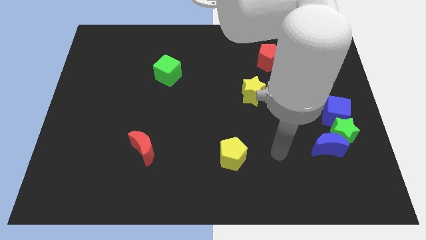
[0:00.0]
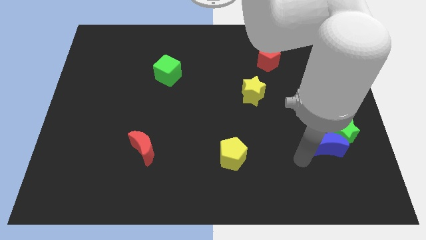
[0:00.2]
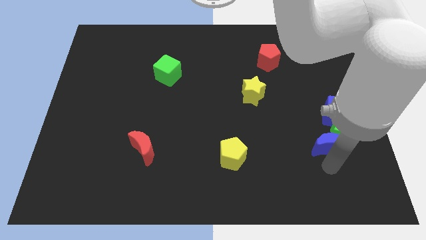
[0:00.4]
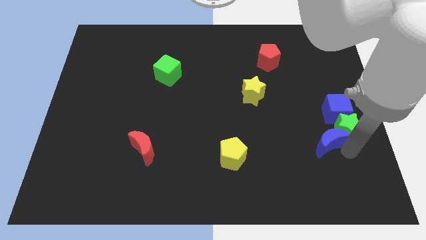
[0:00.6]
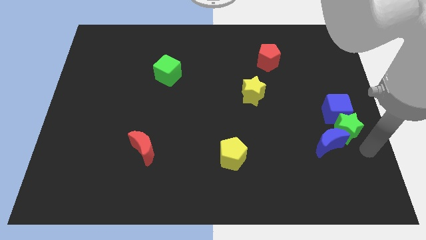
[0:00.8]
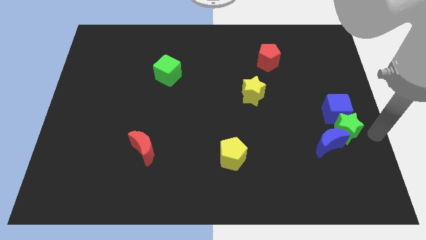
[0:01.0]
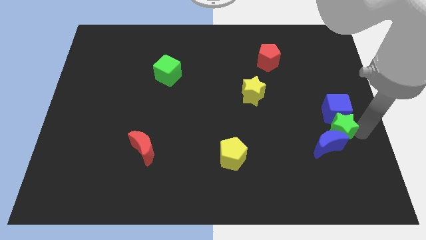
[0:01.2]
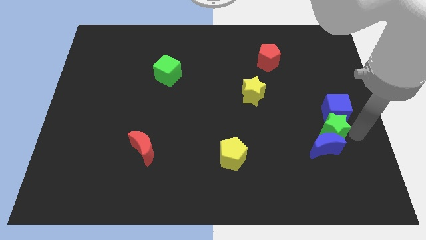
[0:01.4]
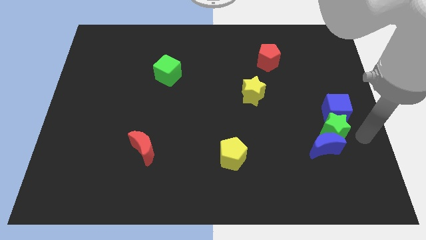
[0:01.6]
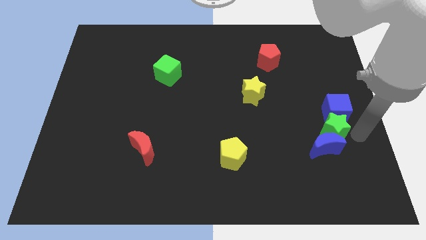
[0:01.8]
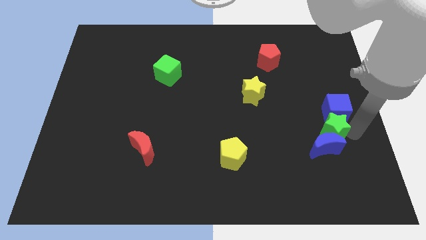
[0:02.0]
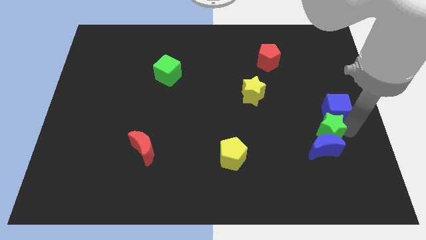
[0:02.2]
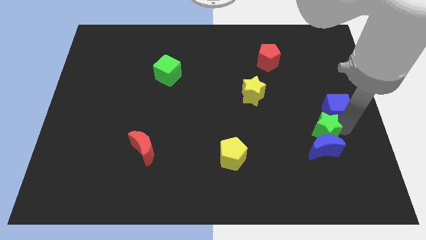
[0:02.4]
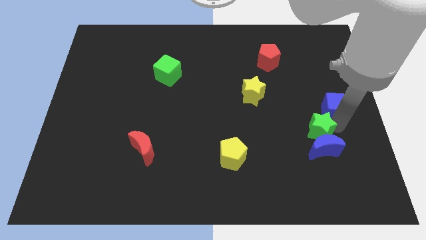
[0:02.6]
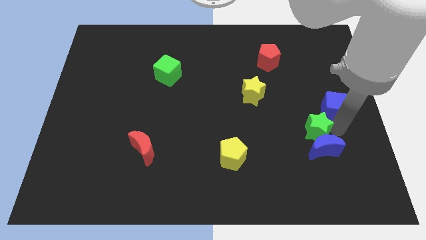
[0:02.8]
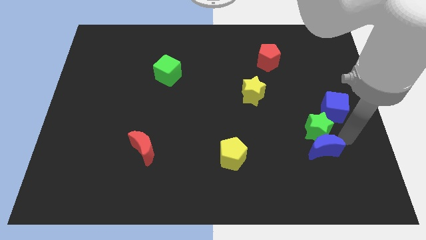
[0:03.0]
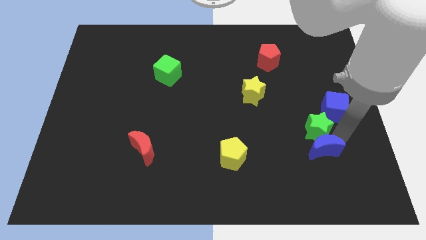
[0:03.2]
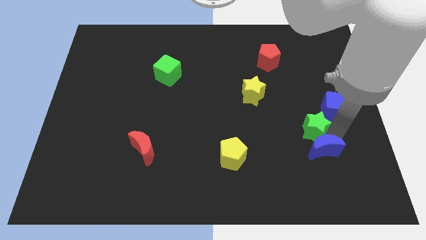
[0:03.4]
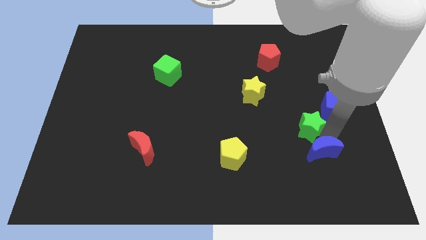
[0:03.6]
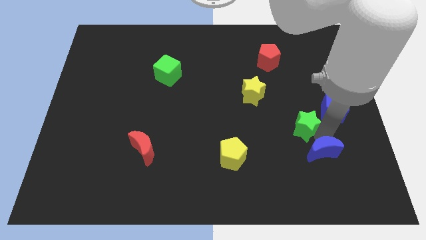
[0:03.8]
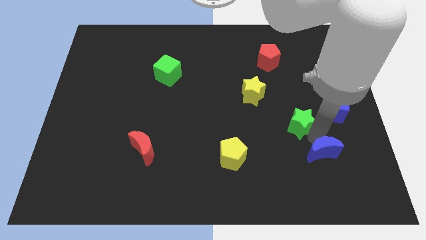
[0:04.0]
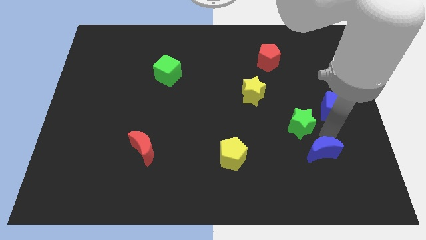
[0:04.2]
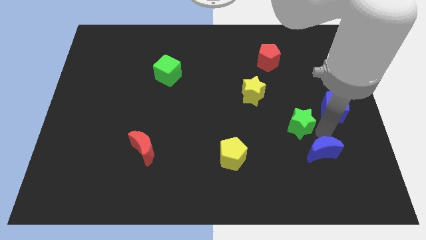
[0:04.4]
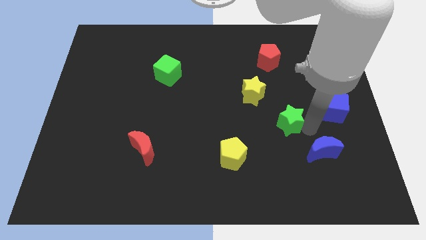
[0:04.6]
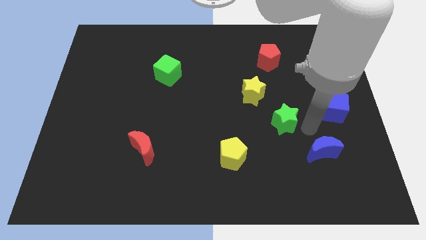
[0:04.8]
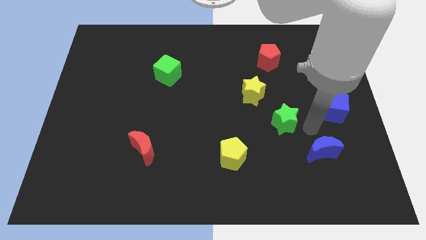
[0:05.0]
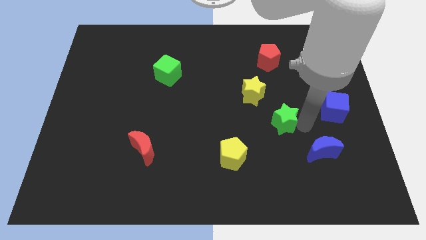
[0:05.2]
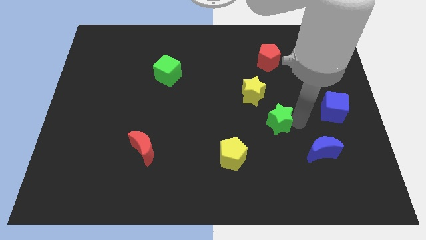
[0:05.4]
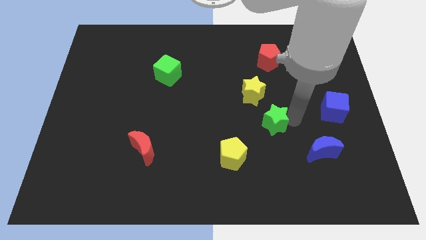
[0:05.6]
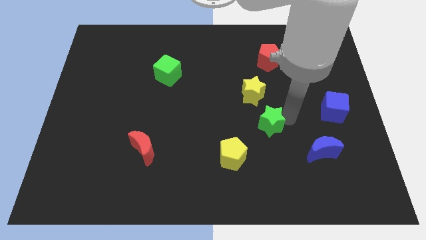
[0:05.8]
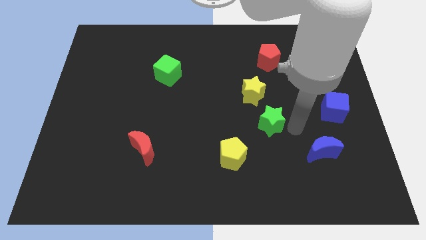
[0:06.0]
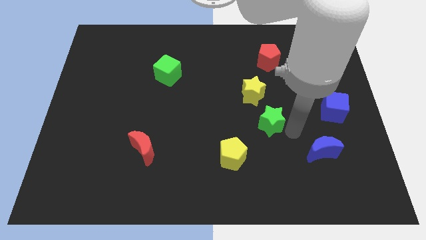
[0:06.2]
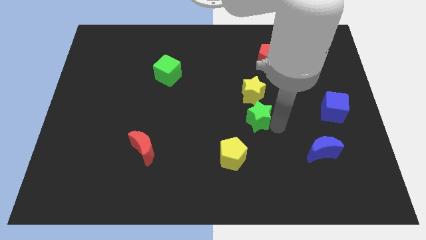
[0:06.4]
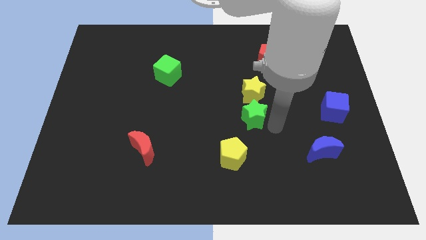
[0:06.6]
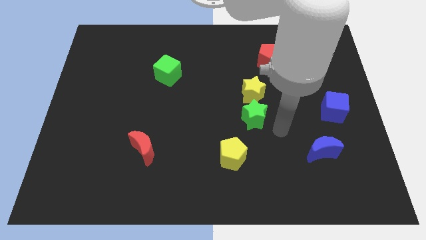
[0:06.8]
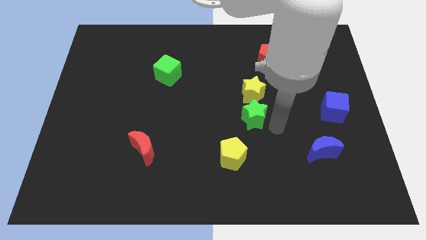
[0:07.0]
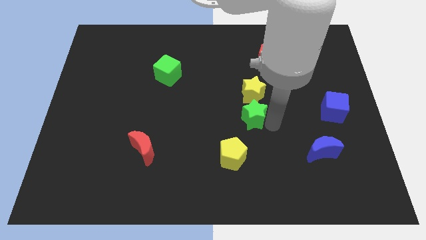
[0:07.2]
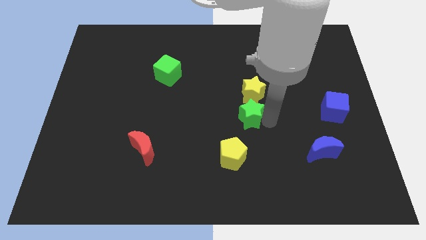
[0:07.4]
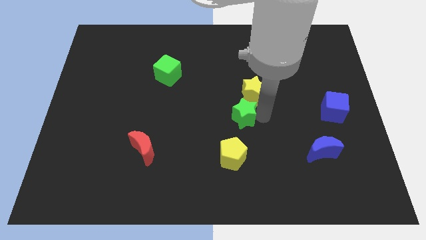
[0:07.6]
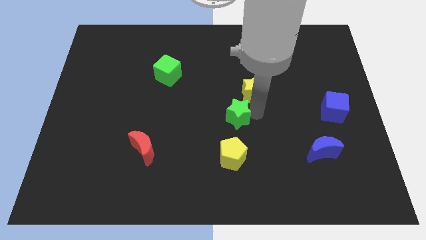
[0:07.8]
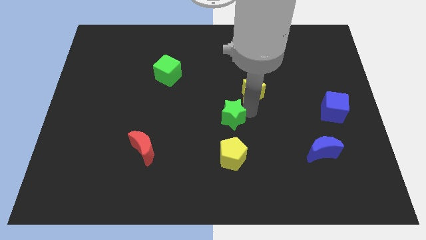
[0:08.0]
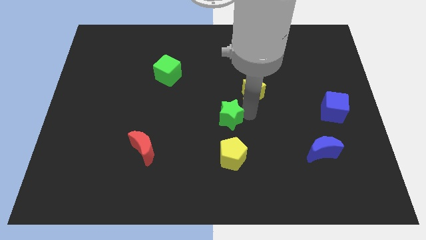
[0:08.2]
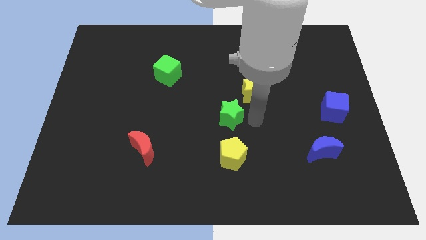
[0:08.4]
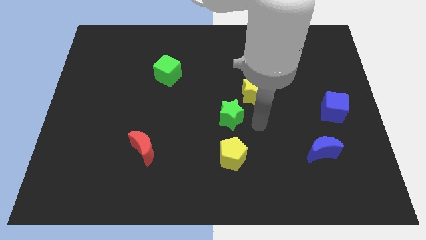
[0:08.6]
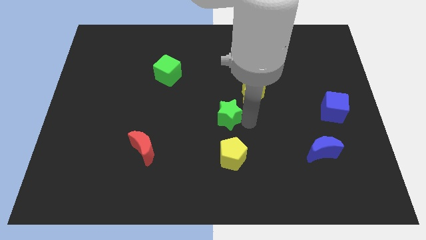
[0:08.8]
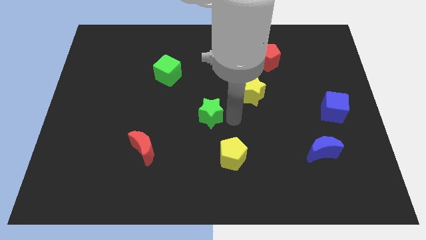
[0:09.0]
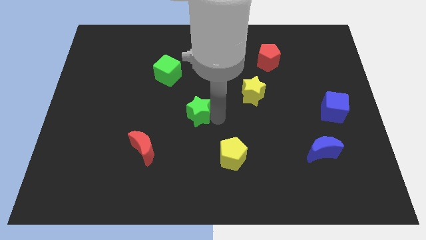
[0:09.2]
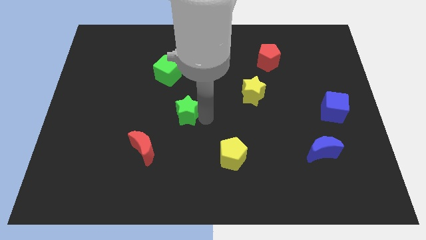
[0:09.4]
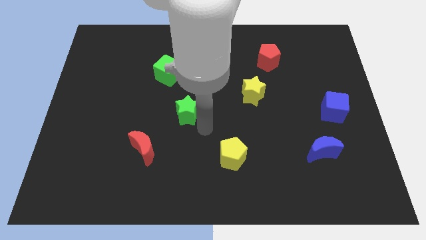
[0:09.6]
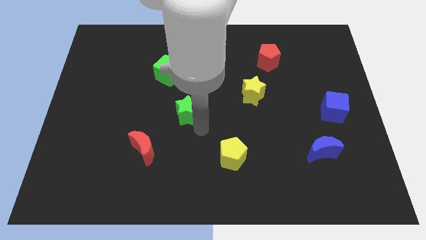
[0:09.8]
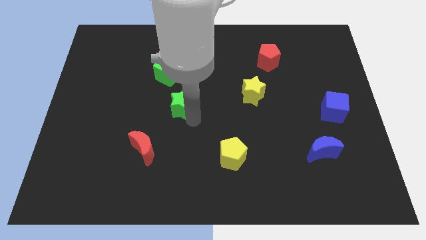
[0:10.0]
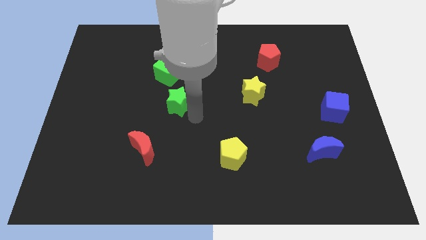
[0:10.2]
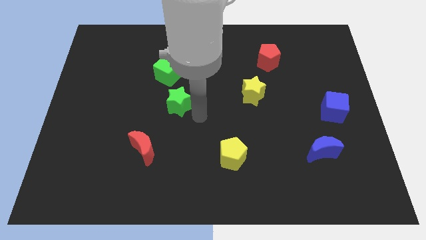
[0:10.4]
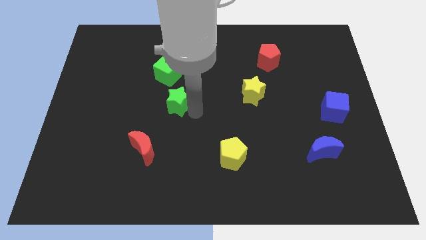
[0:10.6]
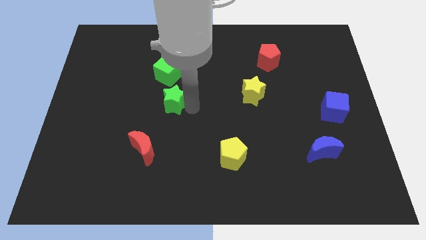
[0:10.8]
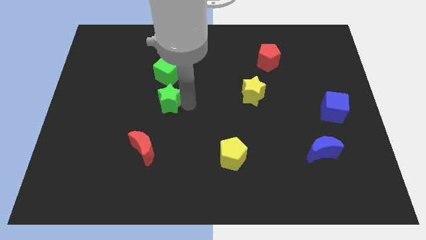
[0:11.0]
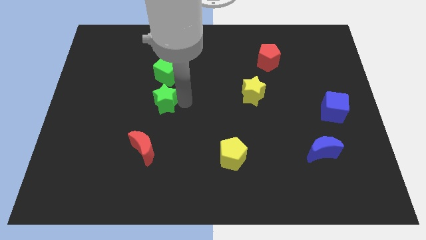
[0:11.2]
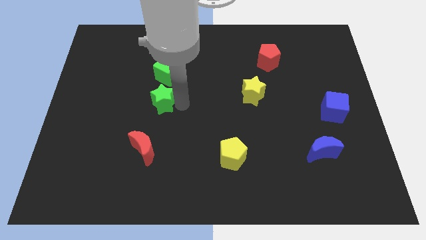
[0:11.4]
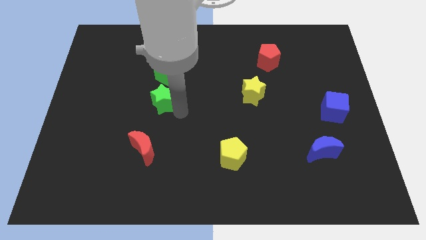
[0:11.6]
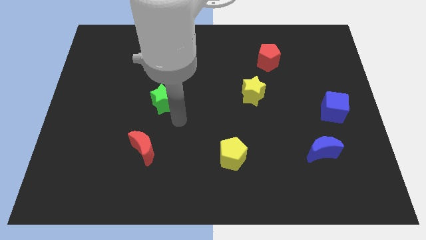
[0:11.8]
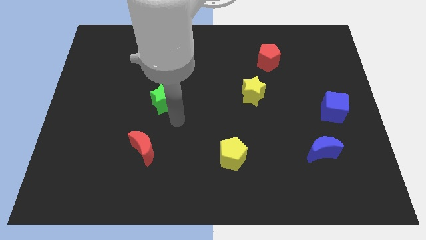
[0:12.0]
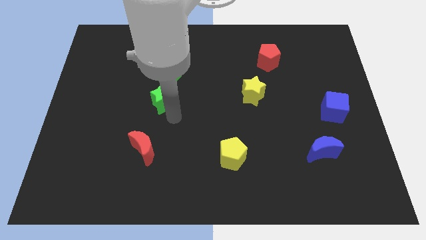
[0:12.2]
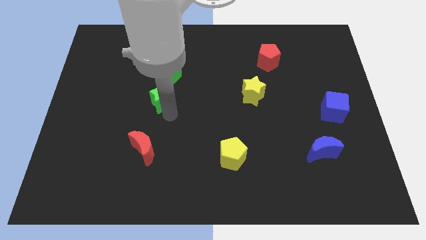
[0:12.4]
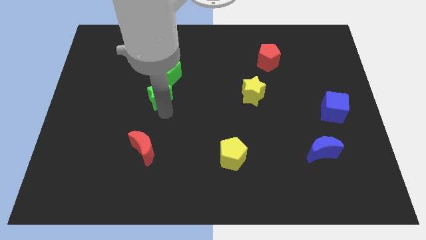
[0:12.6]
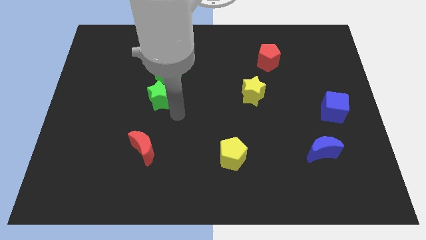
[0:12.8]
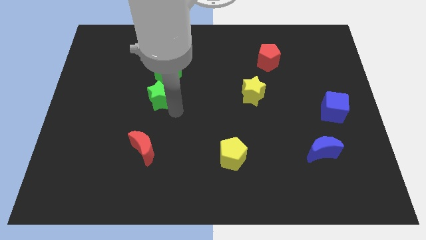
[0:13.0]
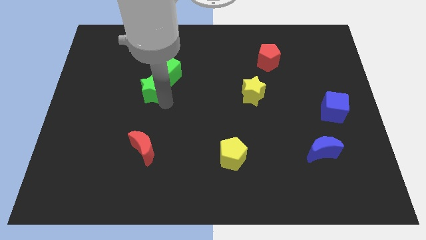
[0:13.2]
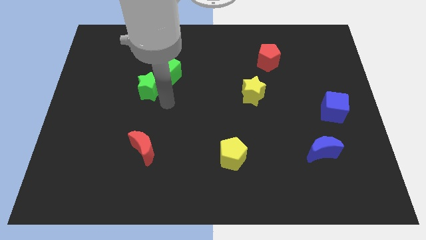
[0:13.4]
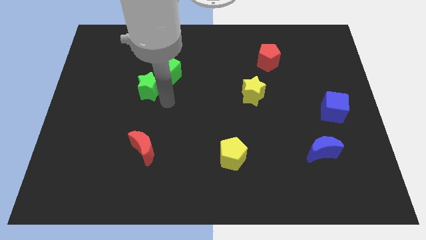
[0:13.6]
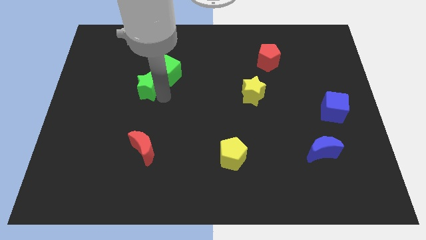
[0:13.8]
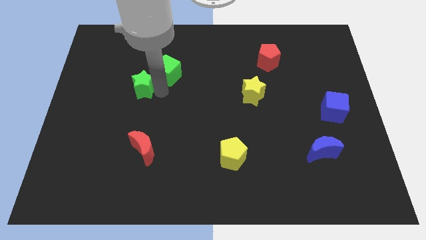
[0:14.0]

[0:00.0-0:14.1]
put the green star to the left side of the green cube
